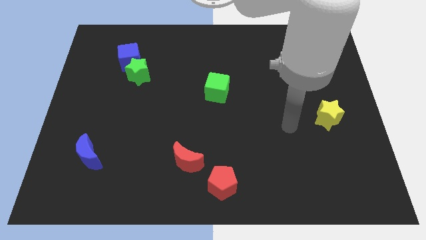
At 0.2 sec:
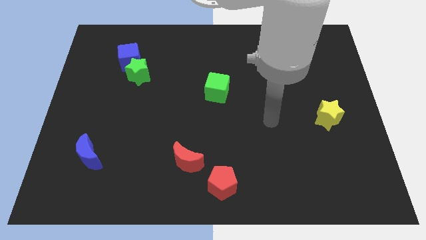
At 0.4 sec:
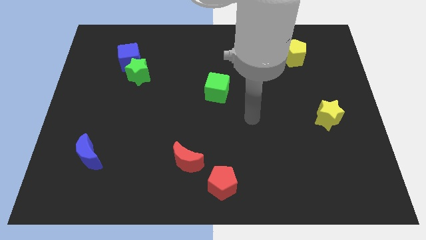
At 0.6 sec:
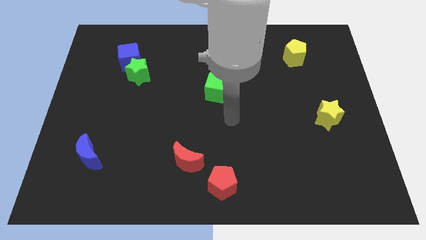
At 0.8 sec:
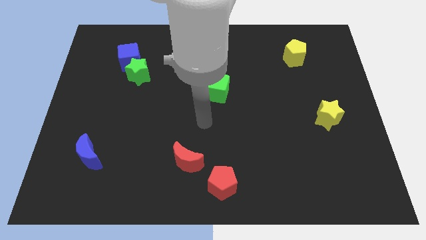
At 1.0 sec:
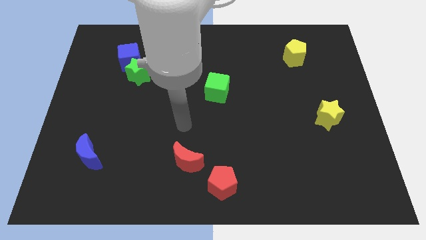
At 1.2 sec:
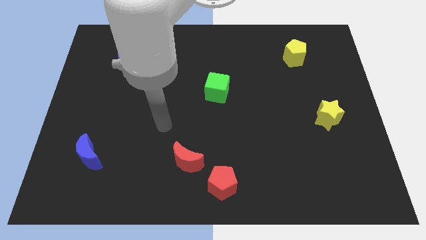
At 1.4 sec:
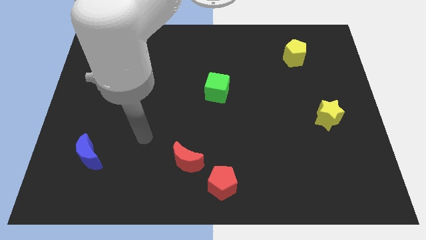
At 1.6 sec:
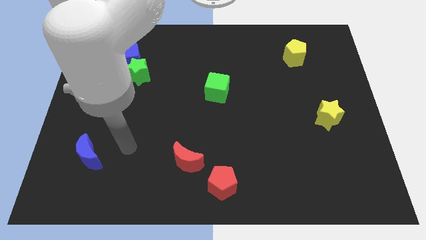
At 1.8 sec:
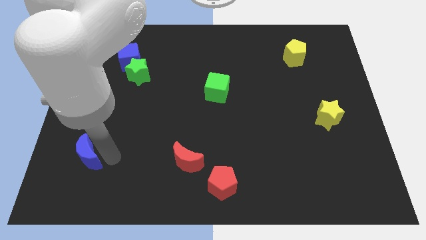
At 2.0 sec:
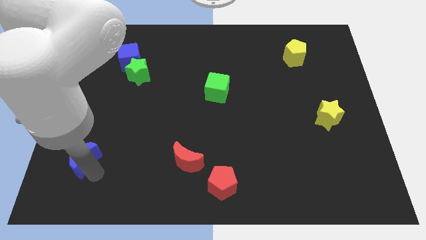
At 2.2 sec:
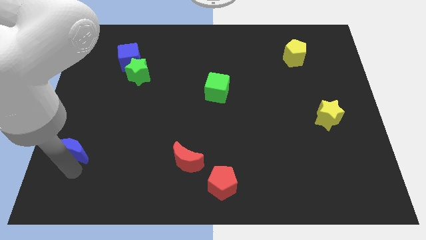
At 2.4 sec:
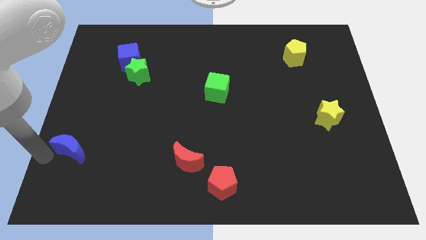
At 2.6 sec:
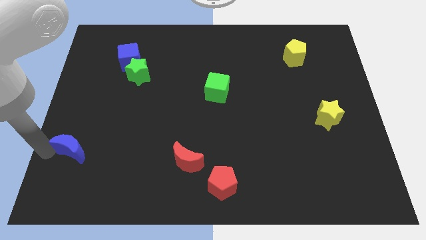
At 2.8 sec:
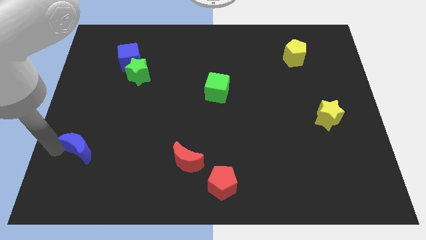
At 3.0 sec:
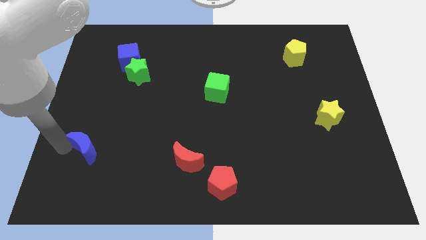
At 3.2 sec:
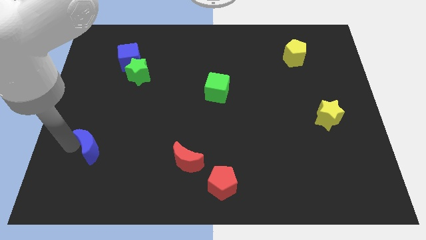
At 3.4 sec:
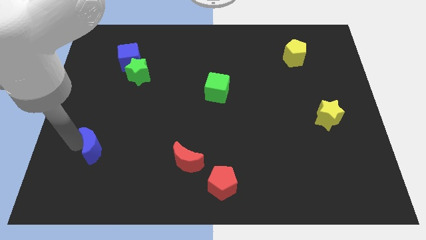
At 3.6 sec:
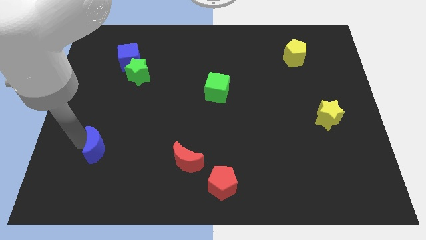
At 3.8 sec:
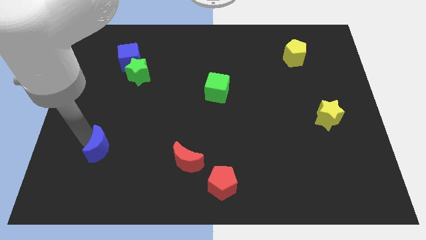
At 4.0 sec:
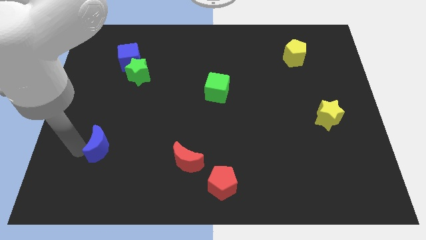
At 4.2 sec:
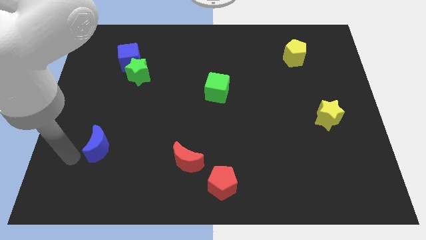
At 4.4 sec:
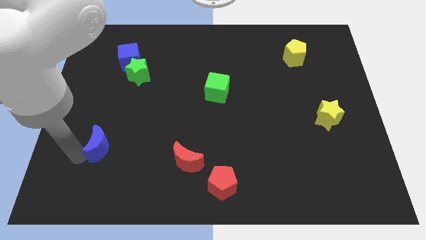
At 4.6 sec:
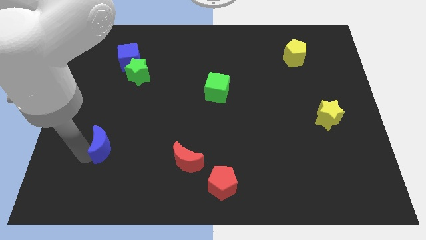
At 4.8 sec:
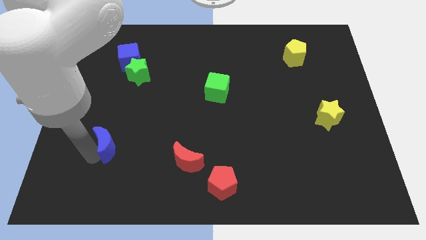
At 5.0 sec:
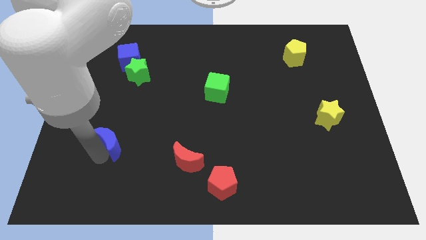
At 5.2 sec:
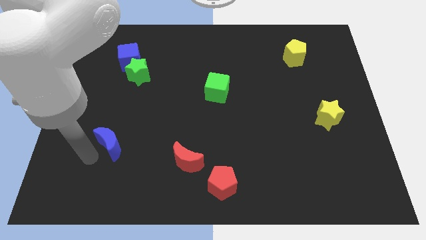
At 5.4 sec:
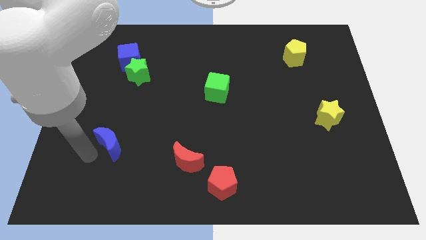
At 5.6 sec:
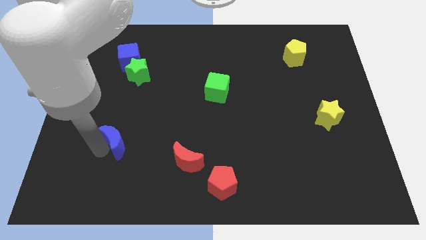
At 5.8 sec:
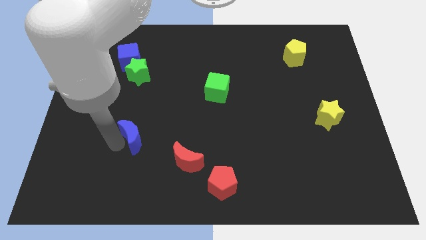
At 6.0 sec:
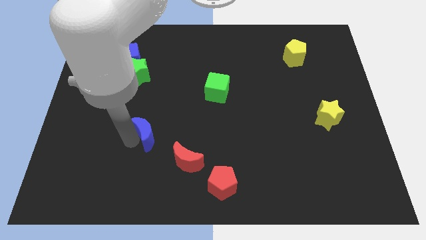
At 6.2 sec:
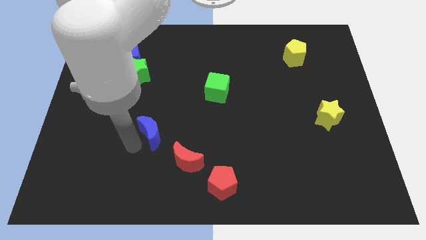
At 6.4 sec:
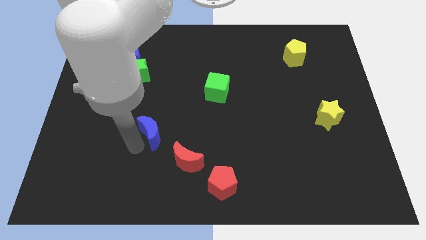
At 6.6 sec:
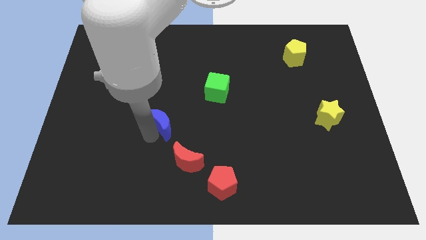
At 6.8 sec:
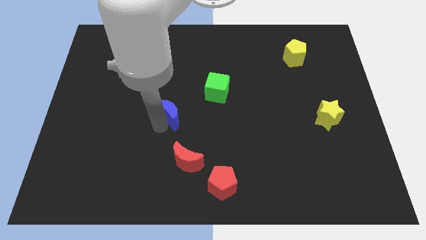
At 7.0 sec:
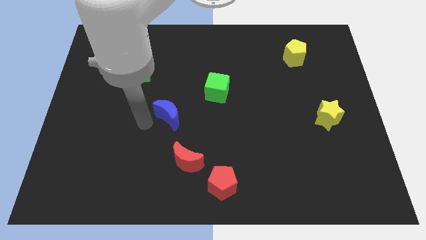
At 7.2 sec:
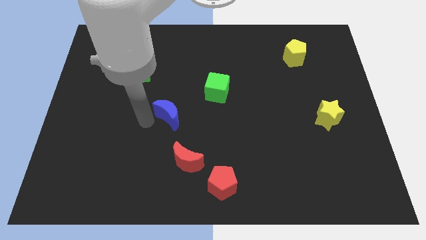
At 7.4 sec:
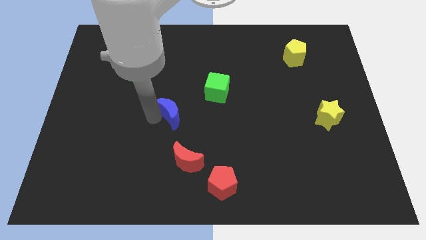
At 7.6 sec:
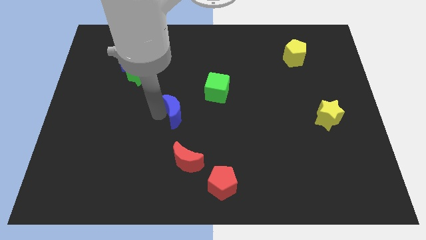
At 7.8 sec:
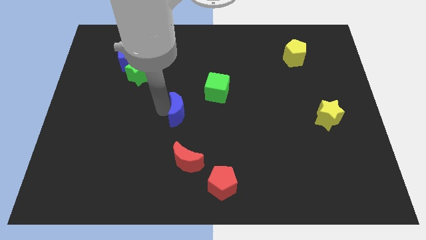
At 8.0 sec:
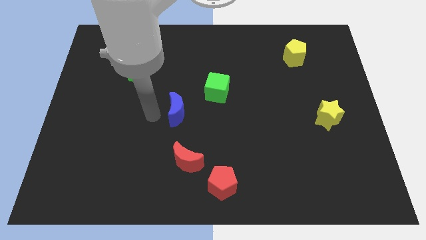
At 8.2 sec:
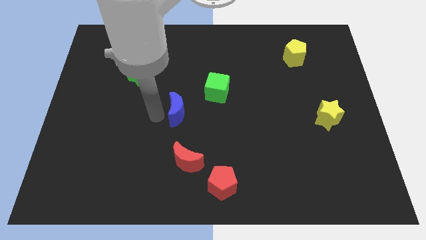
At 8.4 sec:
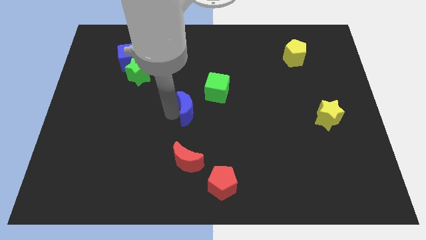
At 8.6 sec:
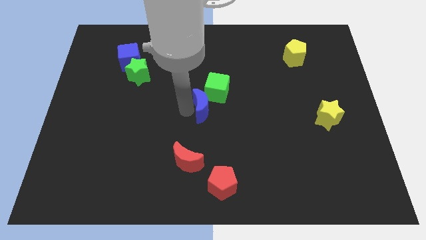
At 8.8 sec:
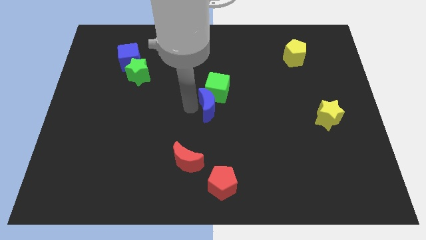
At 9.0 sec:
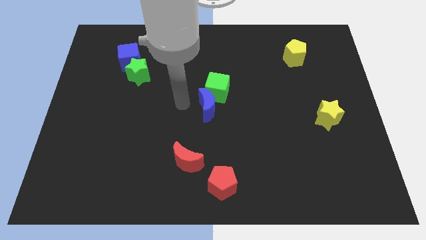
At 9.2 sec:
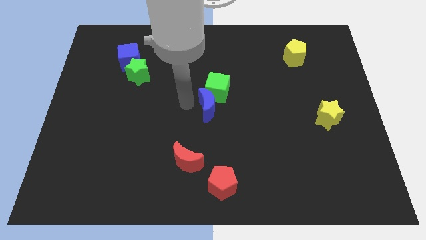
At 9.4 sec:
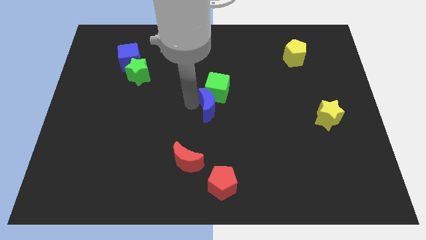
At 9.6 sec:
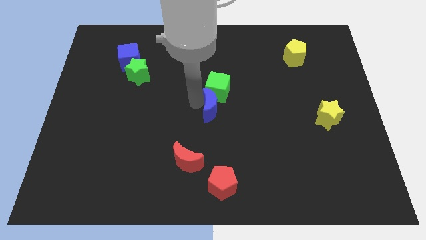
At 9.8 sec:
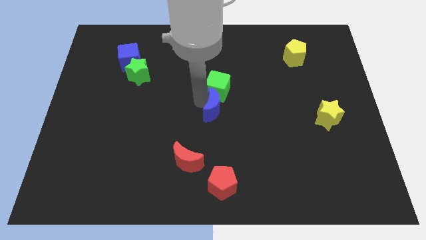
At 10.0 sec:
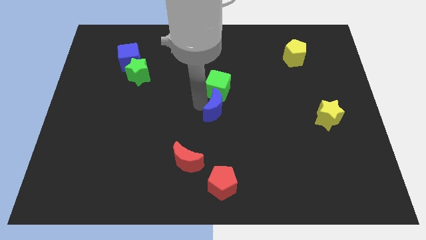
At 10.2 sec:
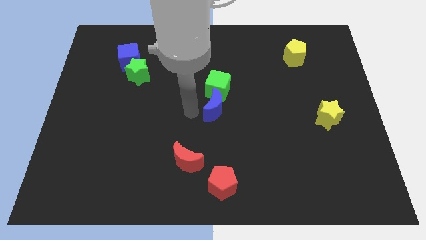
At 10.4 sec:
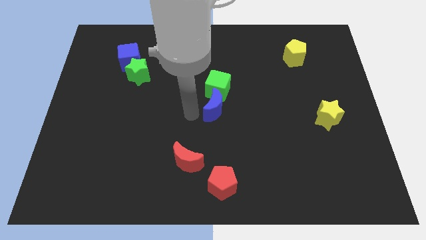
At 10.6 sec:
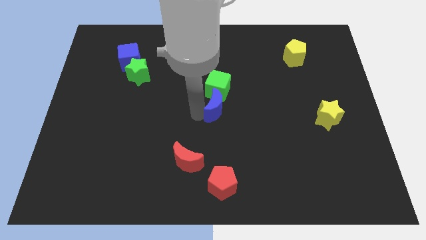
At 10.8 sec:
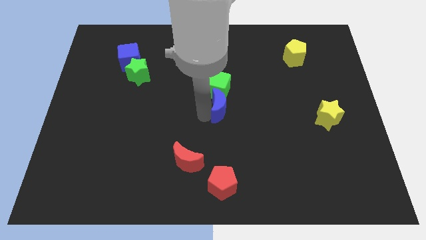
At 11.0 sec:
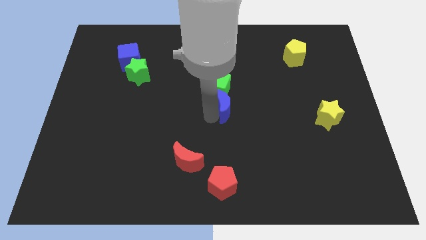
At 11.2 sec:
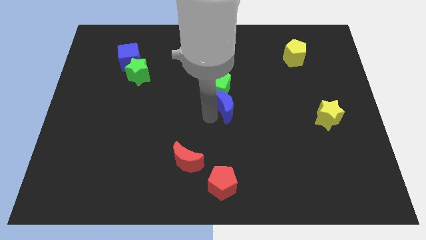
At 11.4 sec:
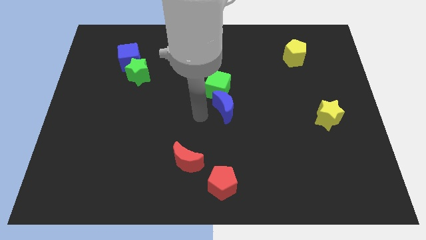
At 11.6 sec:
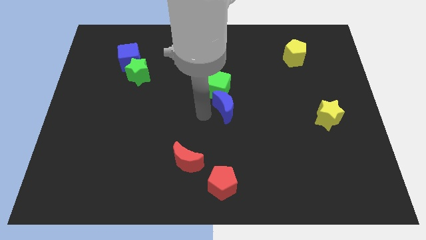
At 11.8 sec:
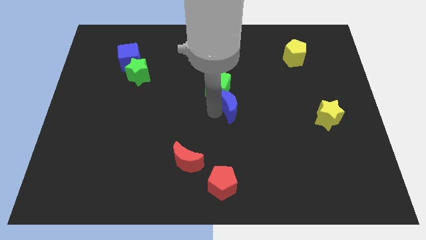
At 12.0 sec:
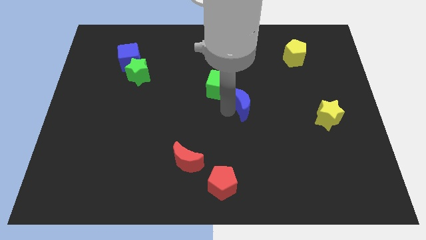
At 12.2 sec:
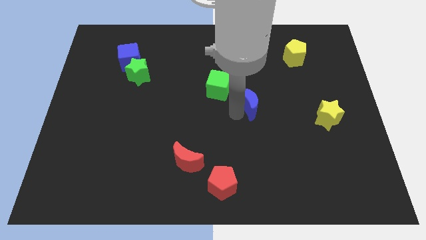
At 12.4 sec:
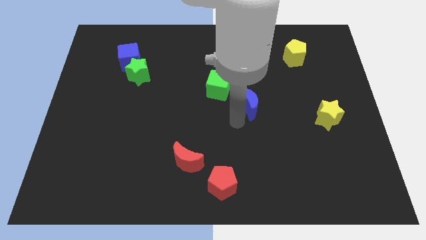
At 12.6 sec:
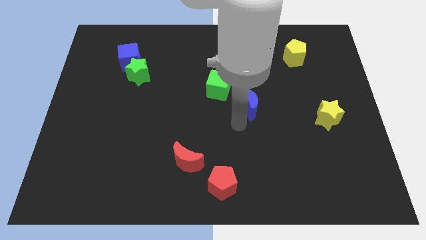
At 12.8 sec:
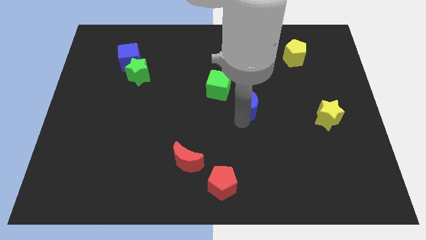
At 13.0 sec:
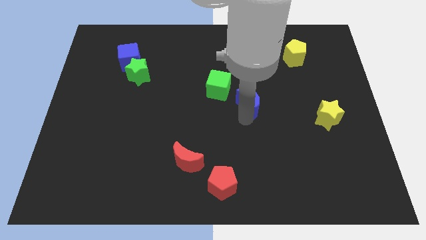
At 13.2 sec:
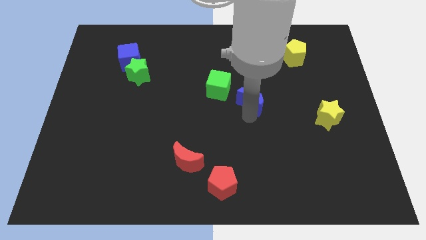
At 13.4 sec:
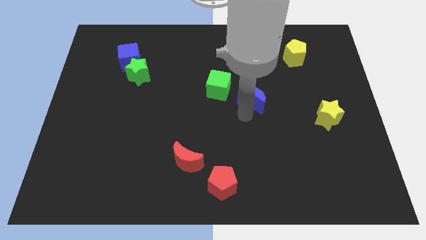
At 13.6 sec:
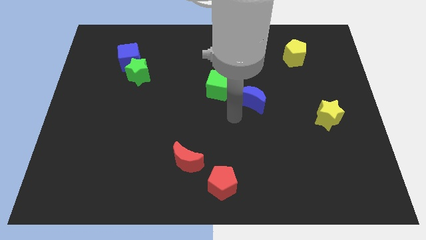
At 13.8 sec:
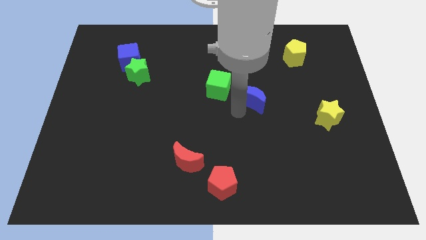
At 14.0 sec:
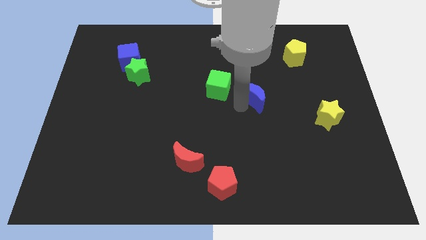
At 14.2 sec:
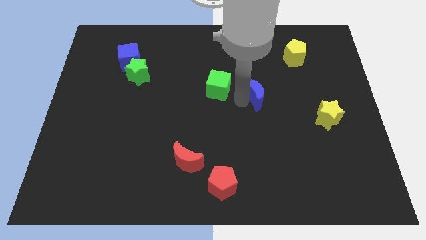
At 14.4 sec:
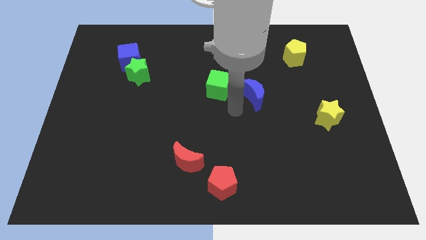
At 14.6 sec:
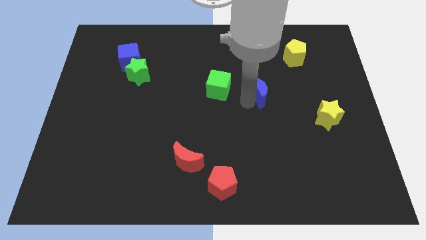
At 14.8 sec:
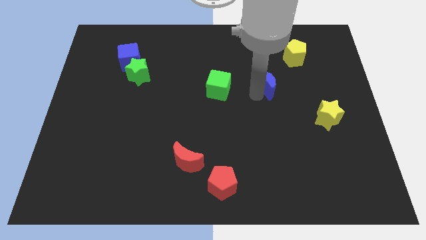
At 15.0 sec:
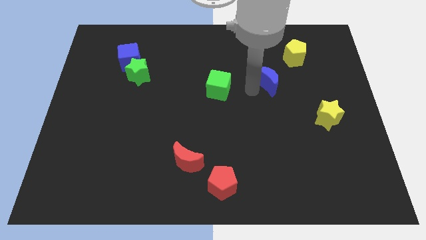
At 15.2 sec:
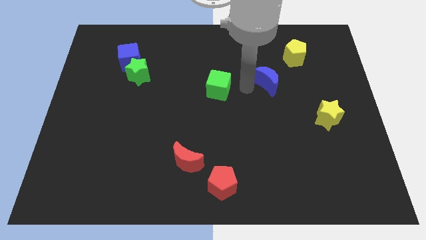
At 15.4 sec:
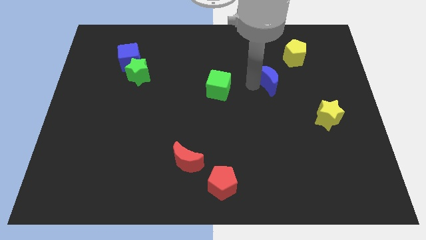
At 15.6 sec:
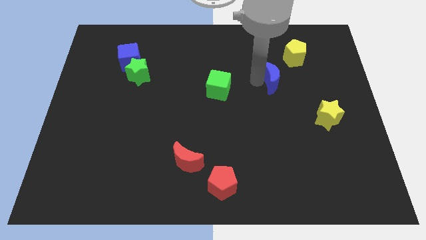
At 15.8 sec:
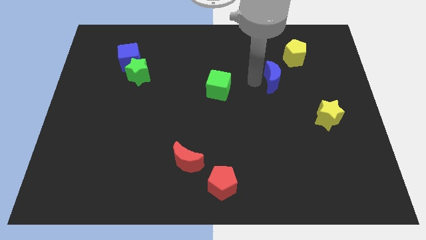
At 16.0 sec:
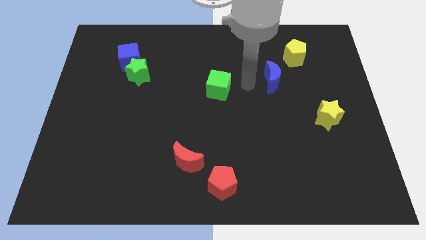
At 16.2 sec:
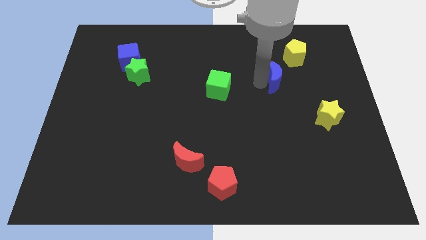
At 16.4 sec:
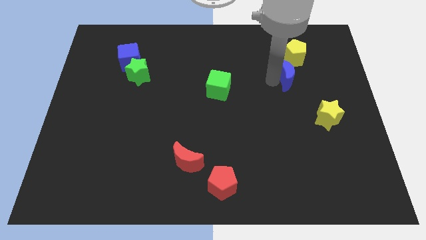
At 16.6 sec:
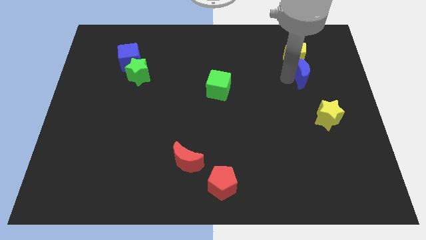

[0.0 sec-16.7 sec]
move the blue moon to the bottom right side of the yellow pentagon
